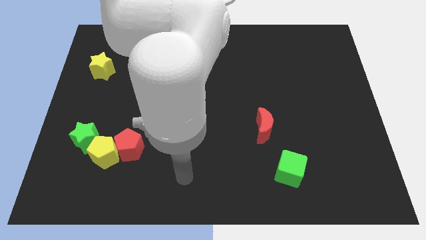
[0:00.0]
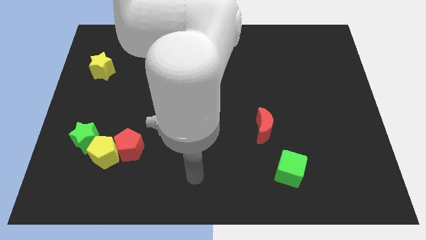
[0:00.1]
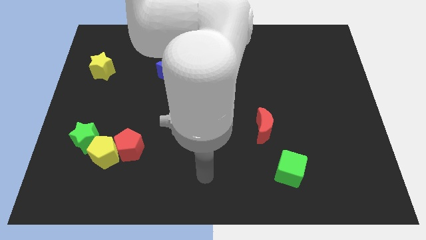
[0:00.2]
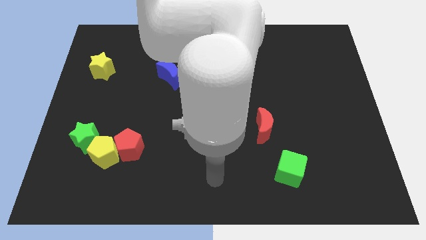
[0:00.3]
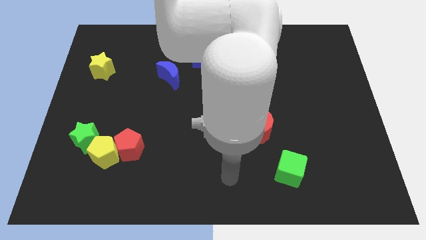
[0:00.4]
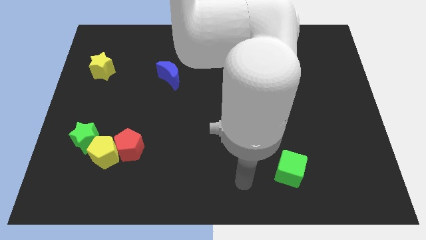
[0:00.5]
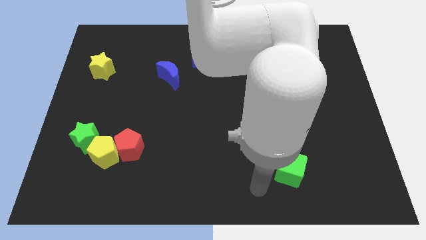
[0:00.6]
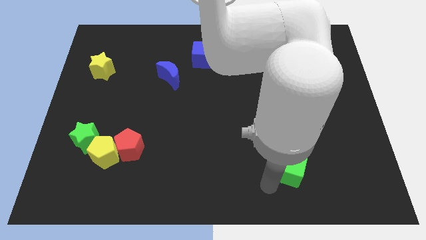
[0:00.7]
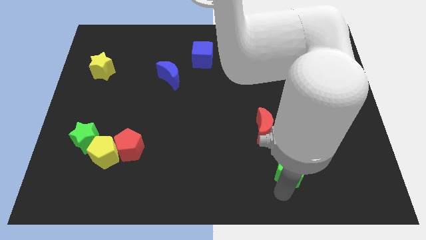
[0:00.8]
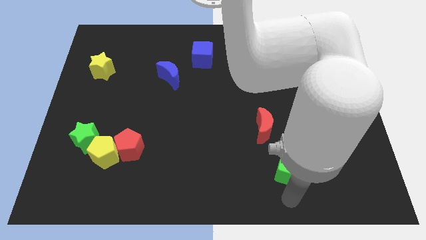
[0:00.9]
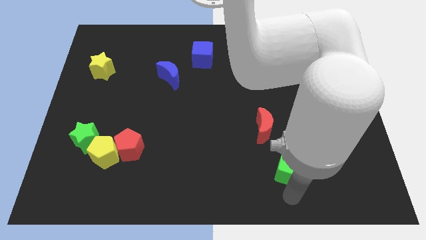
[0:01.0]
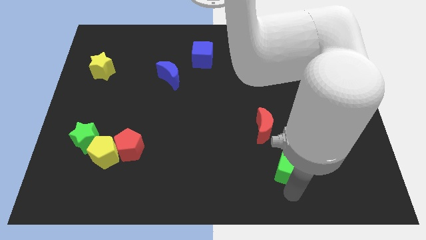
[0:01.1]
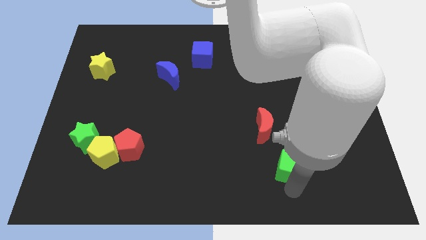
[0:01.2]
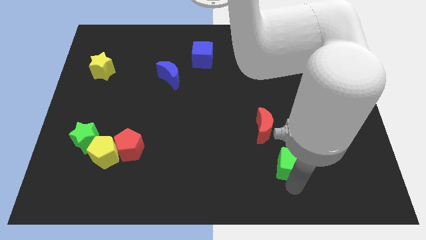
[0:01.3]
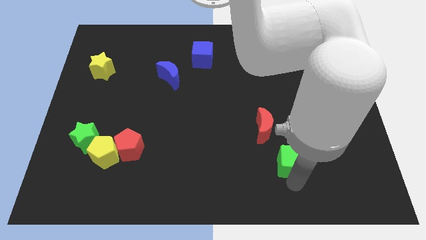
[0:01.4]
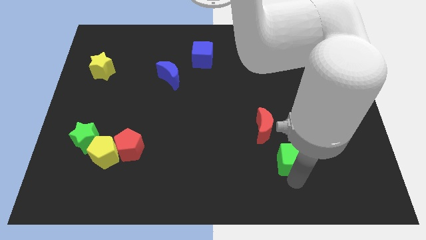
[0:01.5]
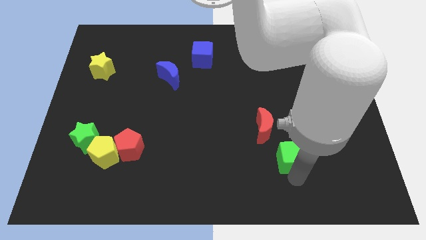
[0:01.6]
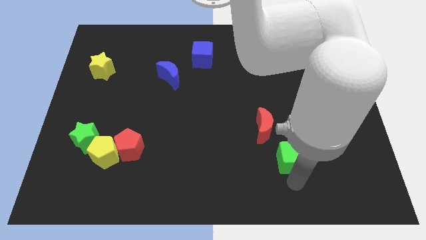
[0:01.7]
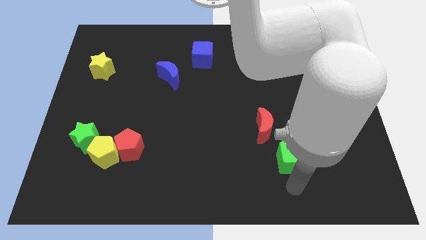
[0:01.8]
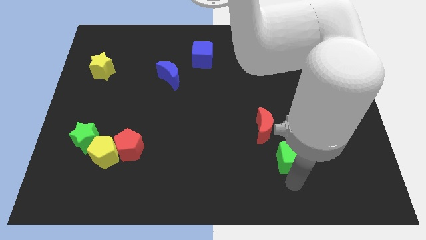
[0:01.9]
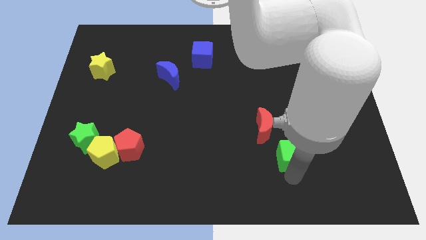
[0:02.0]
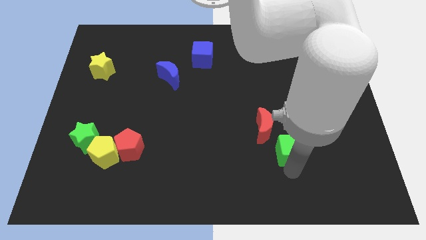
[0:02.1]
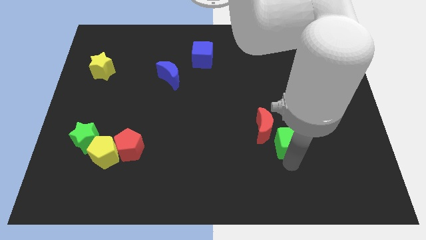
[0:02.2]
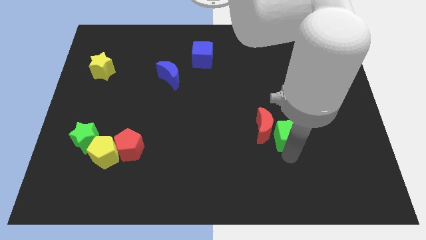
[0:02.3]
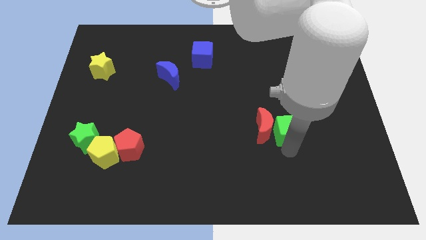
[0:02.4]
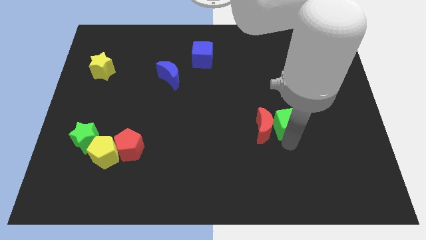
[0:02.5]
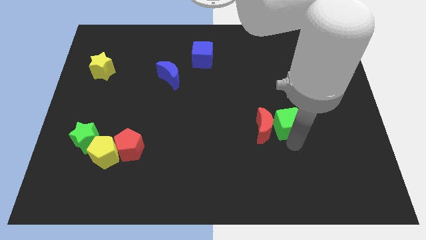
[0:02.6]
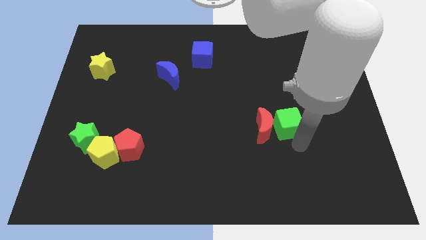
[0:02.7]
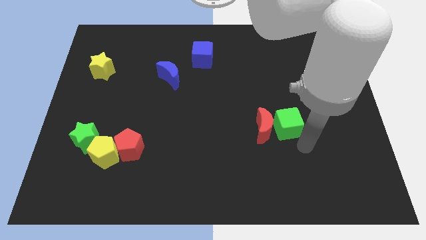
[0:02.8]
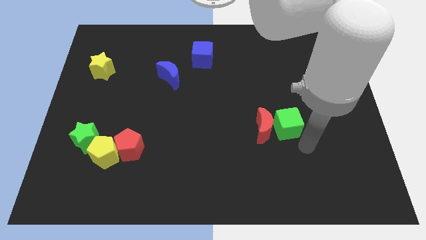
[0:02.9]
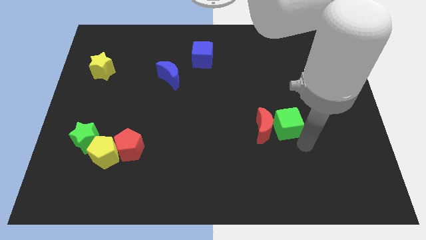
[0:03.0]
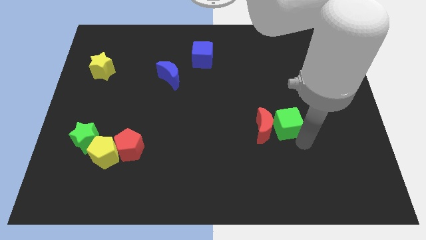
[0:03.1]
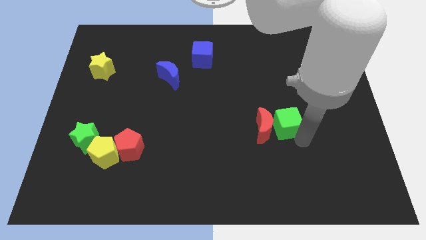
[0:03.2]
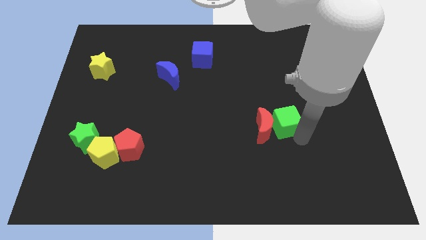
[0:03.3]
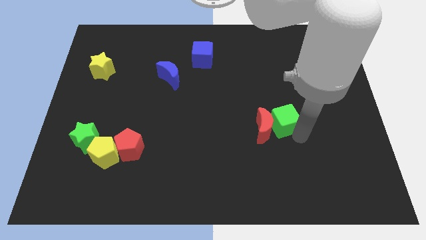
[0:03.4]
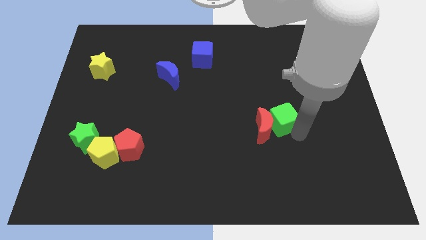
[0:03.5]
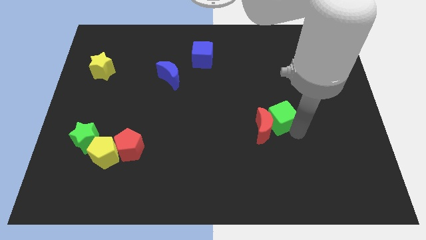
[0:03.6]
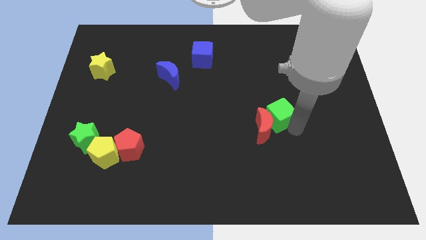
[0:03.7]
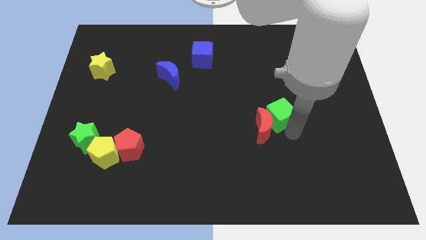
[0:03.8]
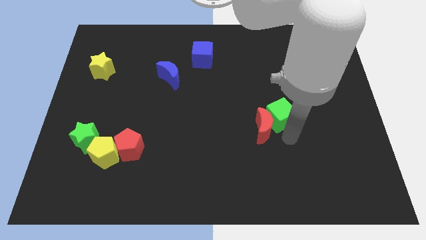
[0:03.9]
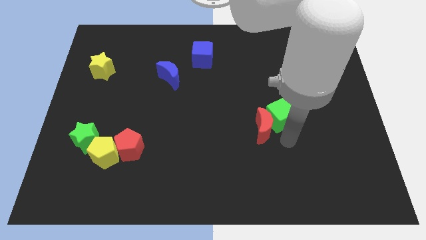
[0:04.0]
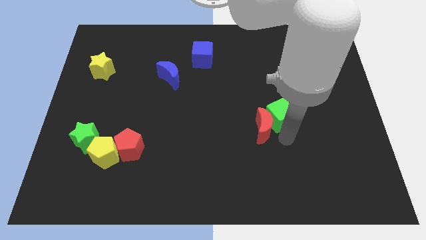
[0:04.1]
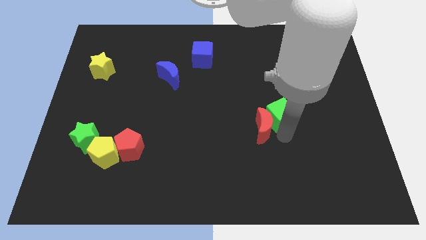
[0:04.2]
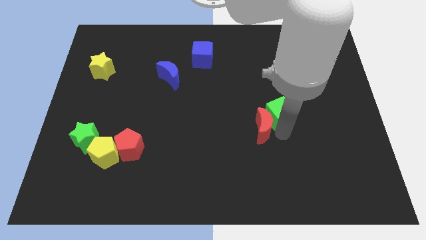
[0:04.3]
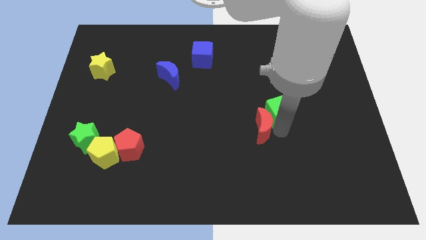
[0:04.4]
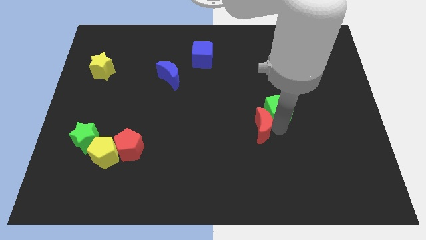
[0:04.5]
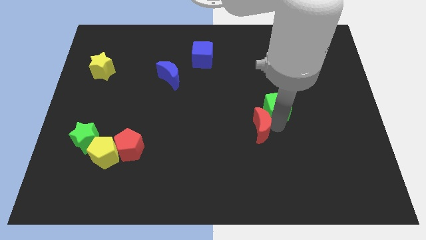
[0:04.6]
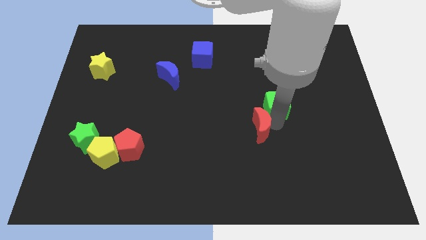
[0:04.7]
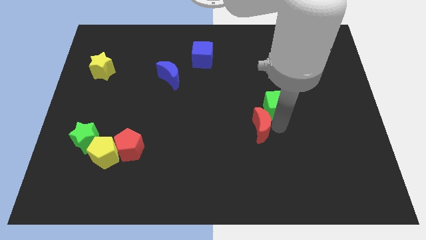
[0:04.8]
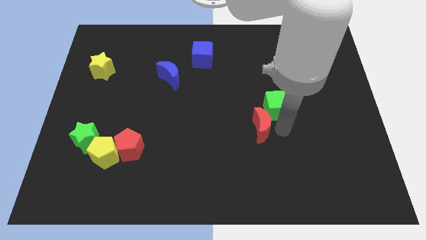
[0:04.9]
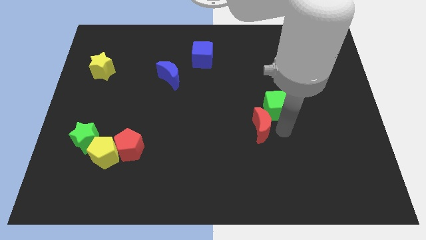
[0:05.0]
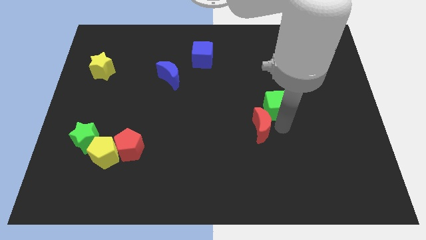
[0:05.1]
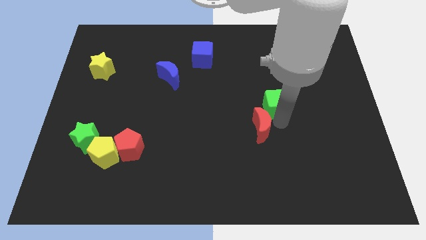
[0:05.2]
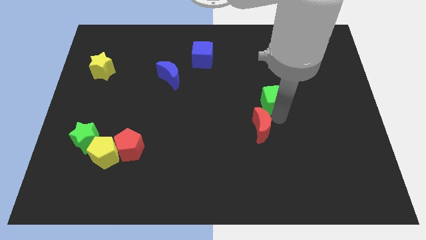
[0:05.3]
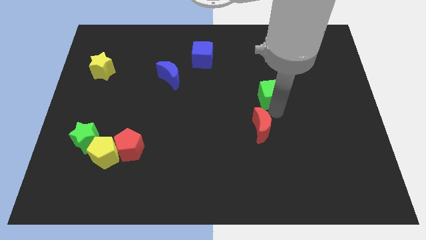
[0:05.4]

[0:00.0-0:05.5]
push the green cube upwards

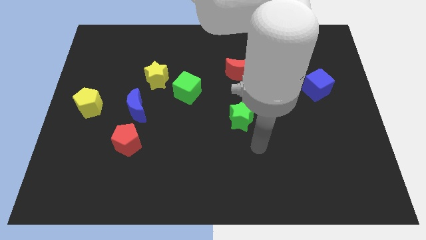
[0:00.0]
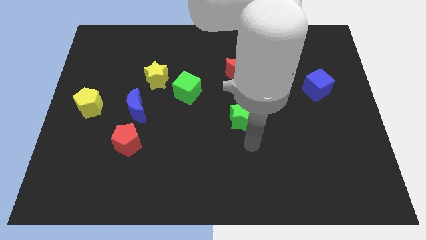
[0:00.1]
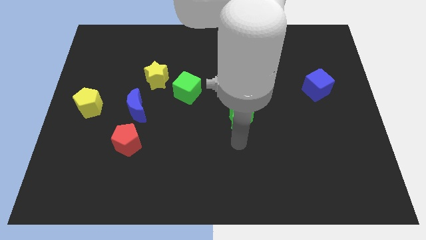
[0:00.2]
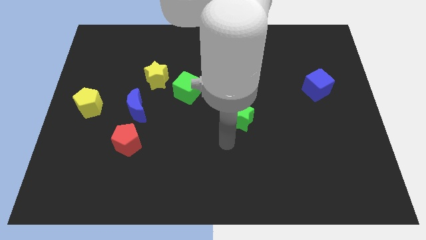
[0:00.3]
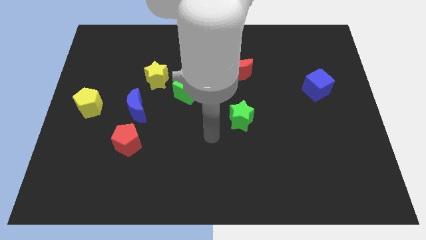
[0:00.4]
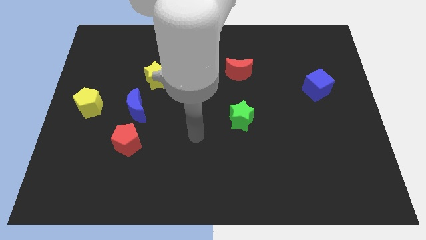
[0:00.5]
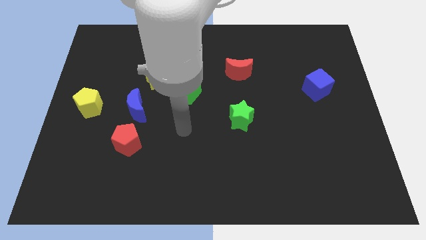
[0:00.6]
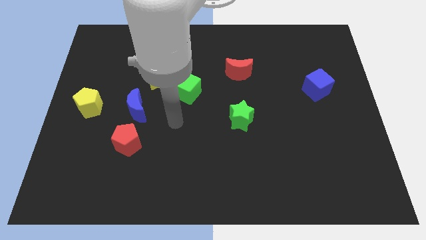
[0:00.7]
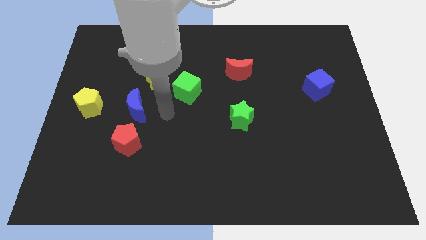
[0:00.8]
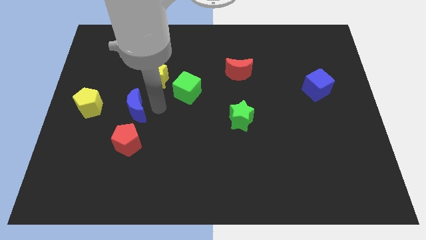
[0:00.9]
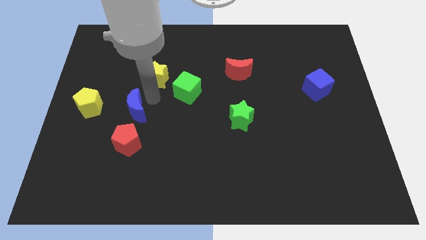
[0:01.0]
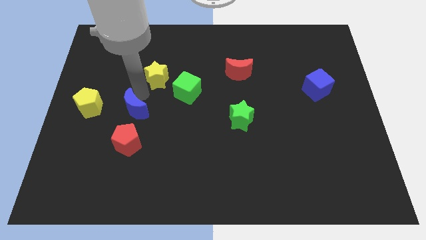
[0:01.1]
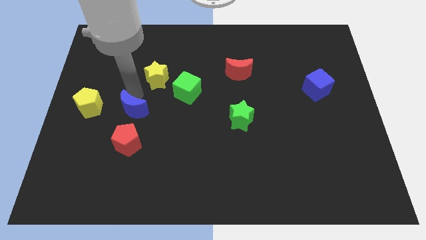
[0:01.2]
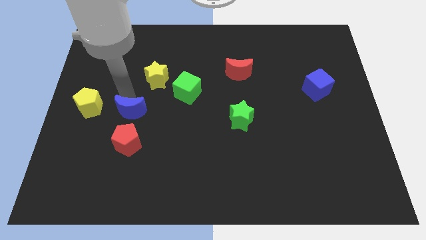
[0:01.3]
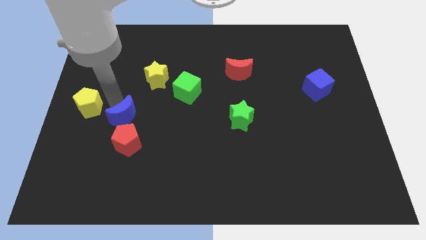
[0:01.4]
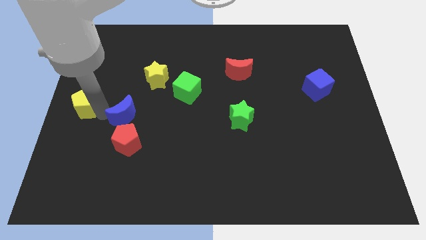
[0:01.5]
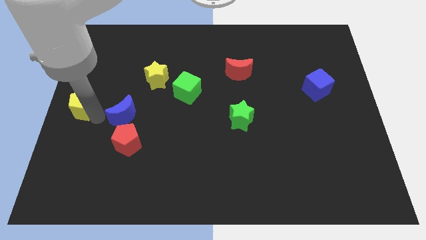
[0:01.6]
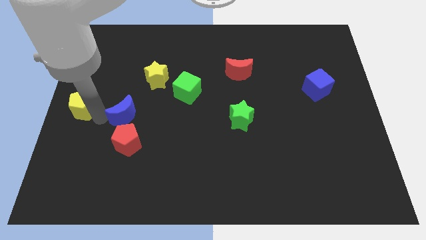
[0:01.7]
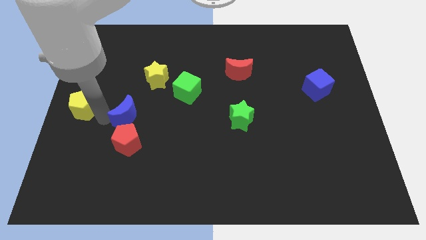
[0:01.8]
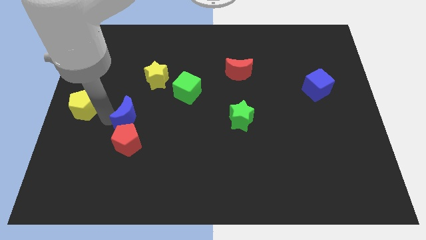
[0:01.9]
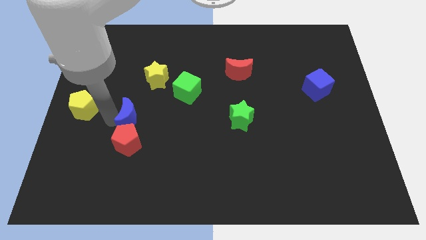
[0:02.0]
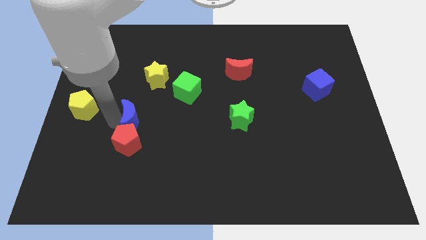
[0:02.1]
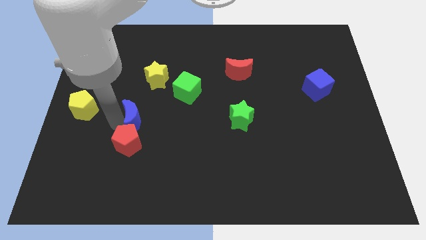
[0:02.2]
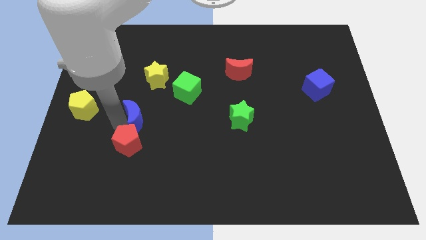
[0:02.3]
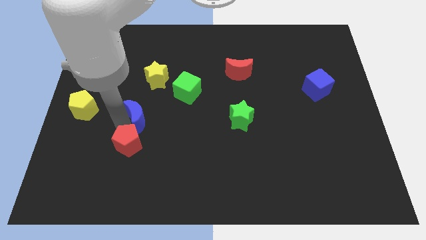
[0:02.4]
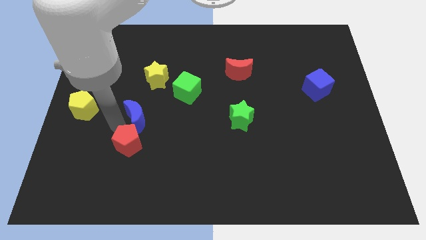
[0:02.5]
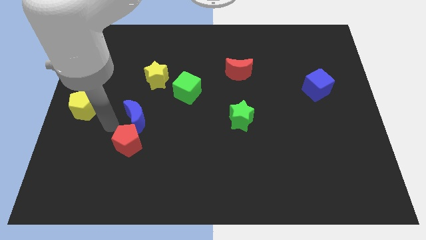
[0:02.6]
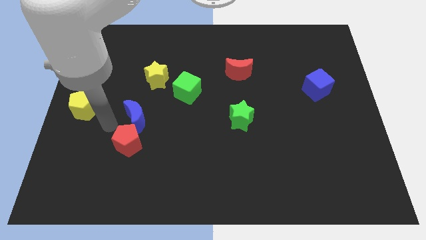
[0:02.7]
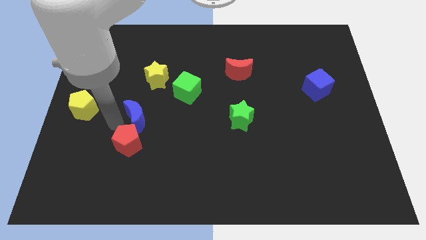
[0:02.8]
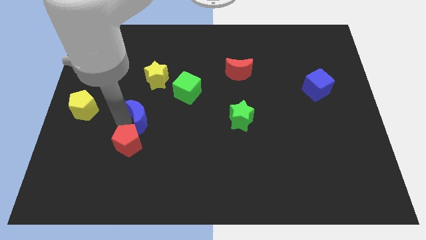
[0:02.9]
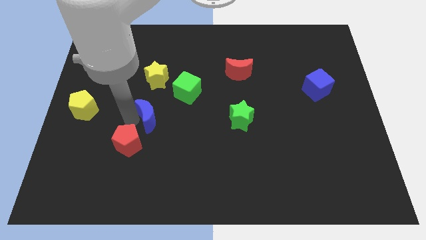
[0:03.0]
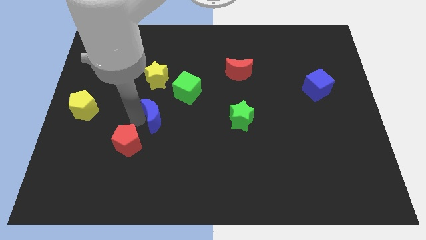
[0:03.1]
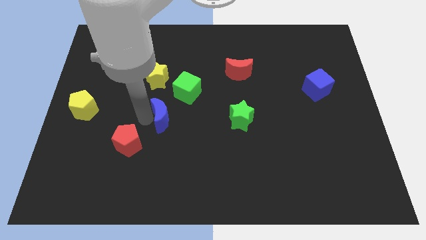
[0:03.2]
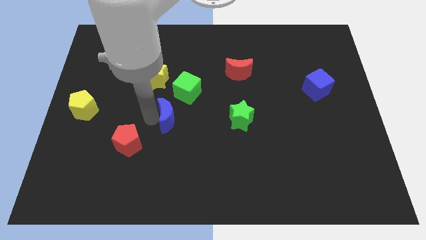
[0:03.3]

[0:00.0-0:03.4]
slide the blue moon a little right
